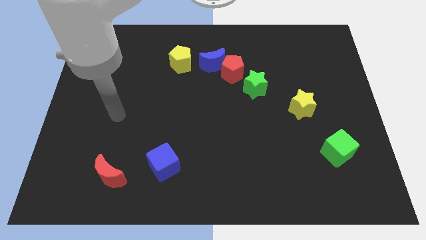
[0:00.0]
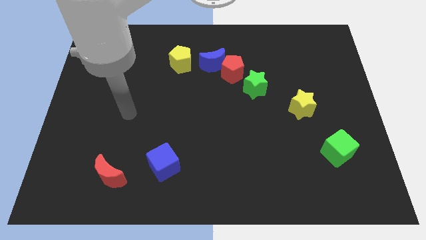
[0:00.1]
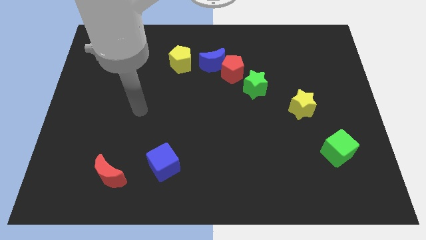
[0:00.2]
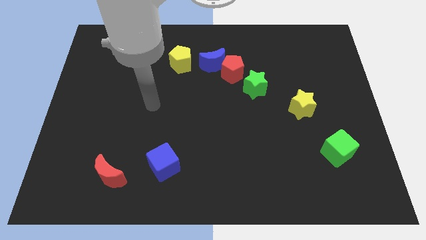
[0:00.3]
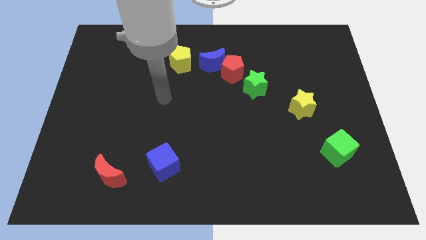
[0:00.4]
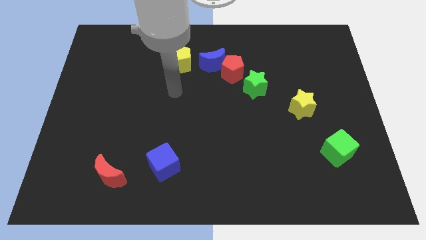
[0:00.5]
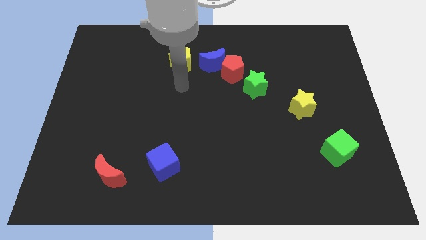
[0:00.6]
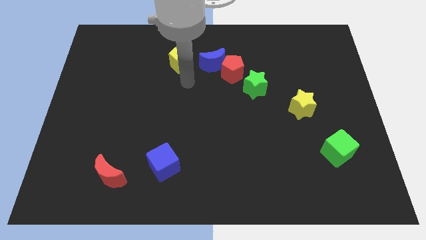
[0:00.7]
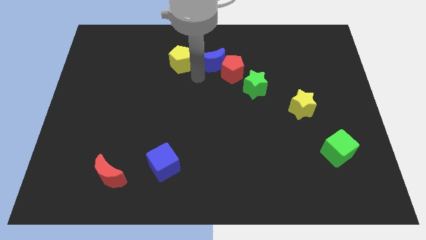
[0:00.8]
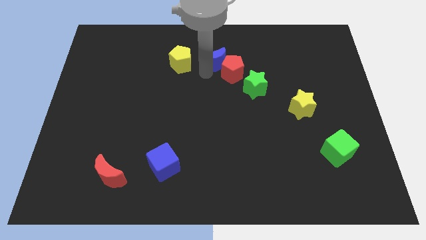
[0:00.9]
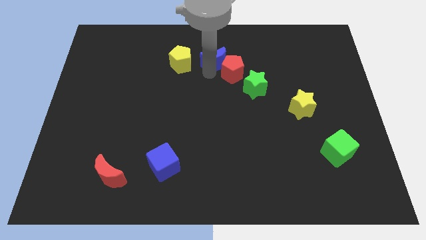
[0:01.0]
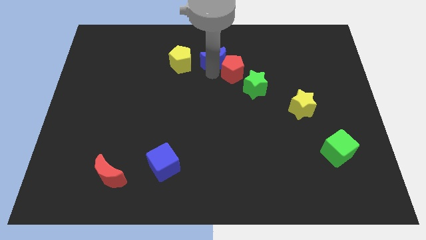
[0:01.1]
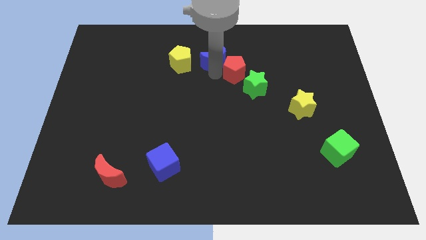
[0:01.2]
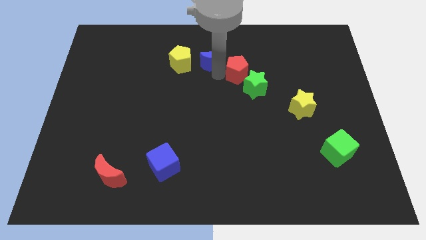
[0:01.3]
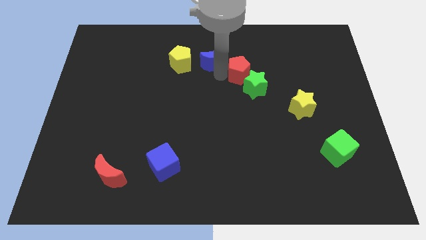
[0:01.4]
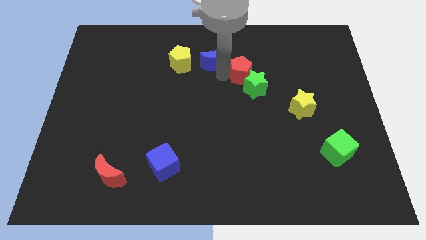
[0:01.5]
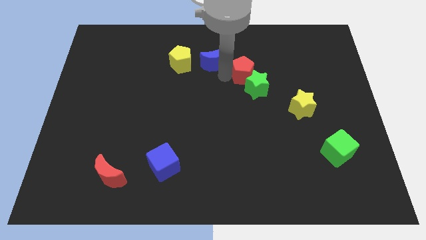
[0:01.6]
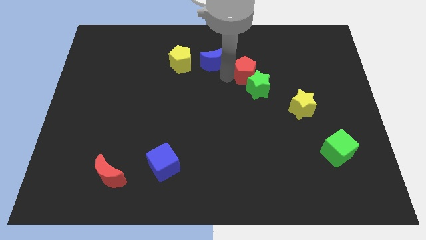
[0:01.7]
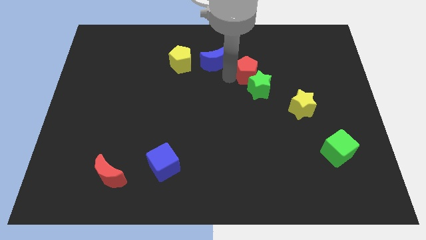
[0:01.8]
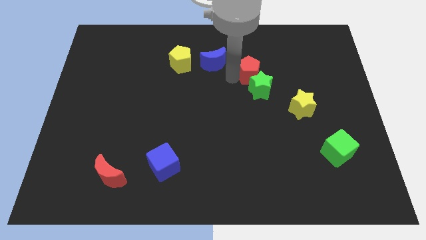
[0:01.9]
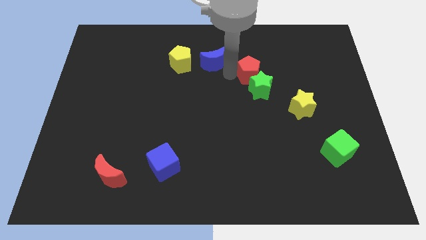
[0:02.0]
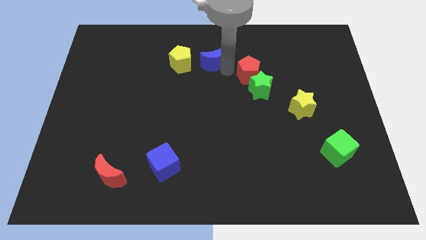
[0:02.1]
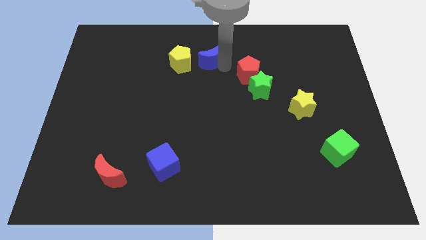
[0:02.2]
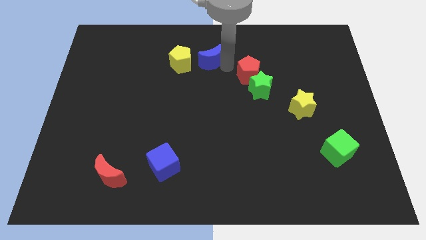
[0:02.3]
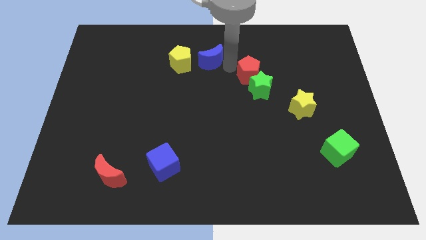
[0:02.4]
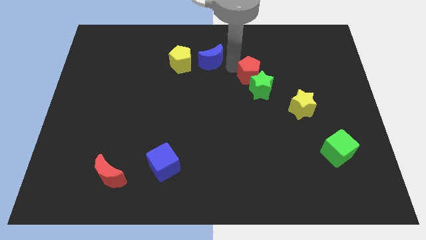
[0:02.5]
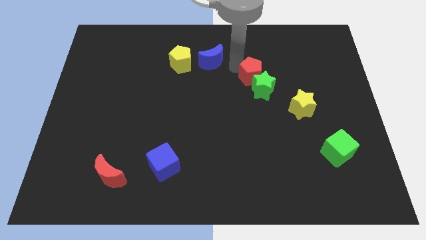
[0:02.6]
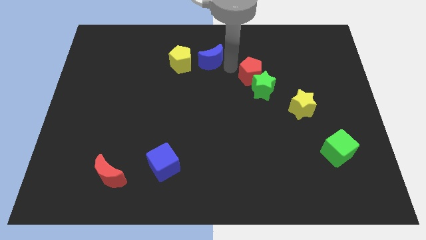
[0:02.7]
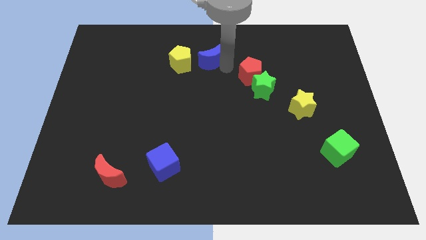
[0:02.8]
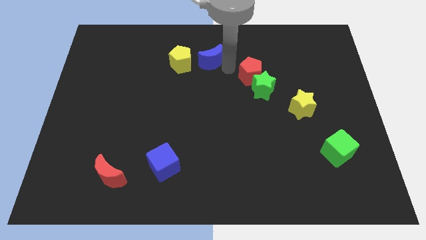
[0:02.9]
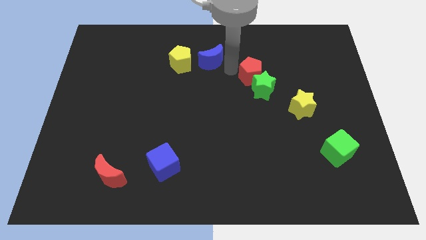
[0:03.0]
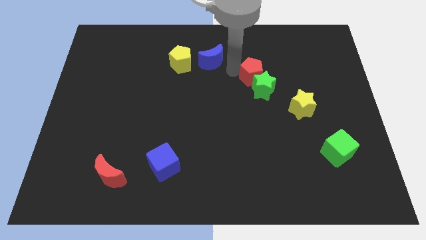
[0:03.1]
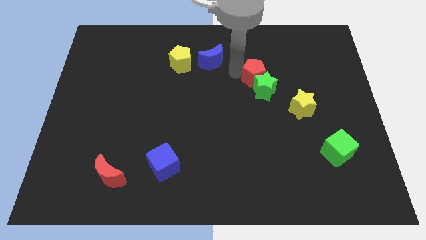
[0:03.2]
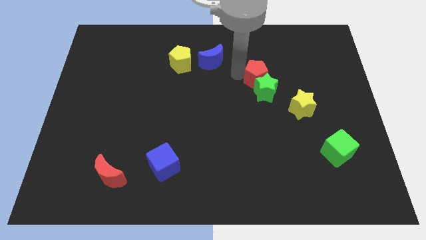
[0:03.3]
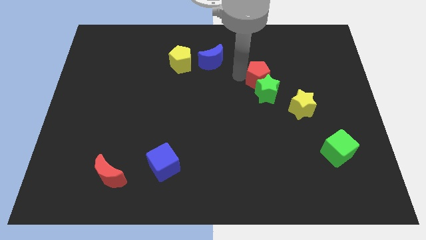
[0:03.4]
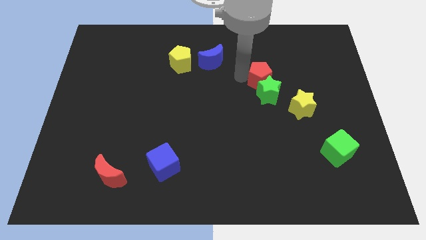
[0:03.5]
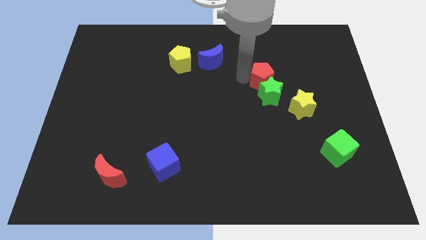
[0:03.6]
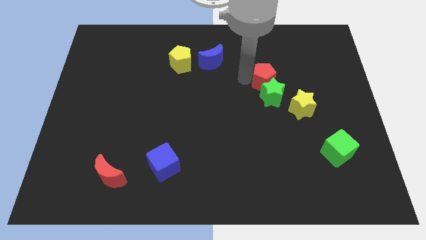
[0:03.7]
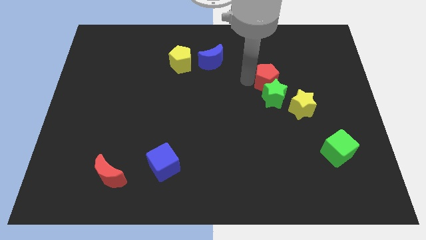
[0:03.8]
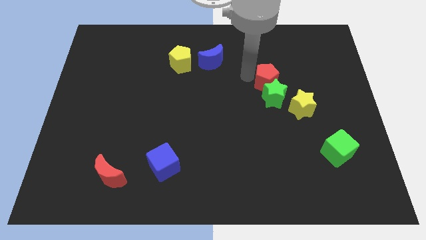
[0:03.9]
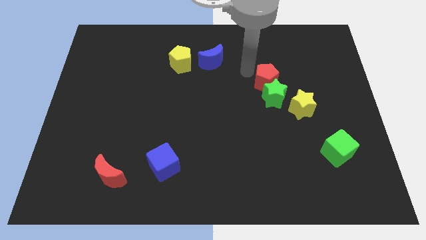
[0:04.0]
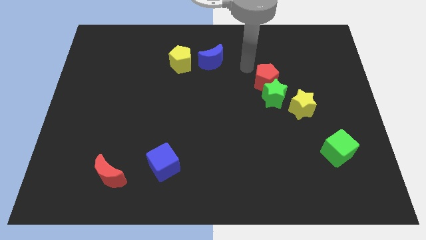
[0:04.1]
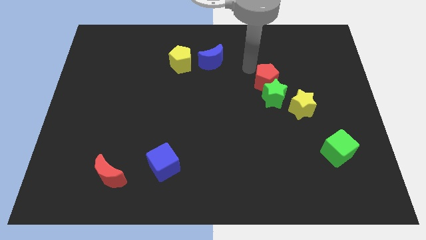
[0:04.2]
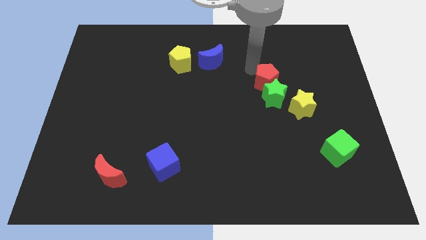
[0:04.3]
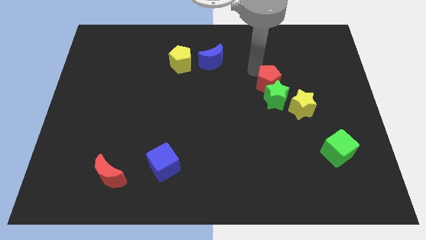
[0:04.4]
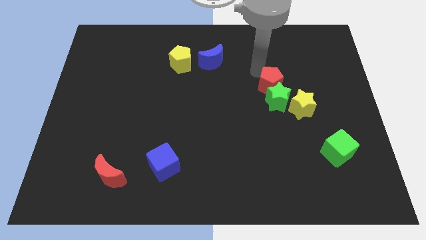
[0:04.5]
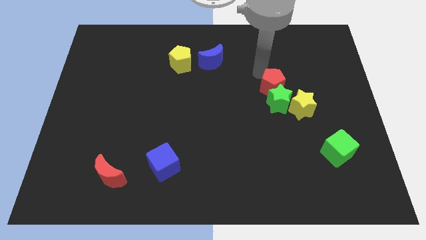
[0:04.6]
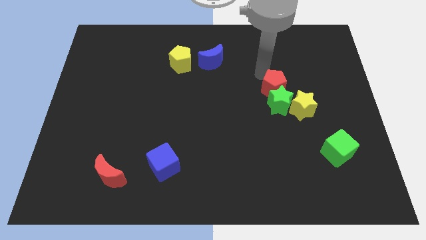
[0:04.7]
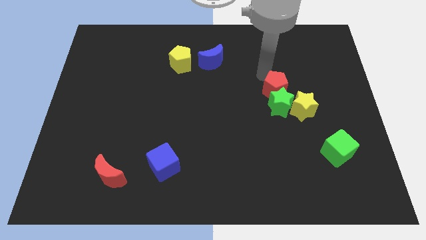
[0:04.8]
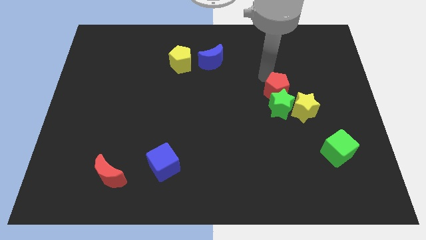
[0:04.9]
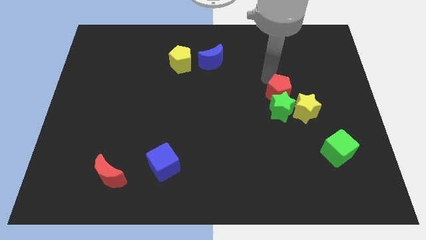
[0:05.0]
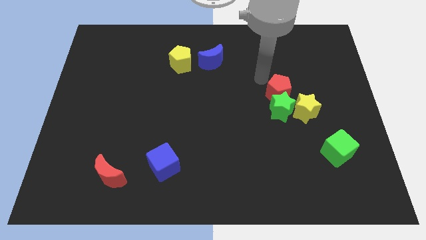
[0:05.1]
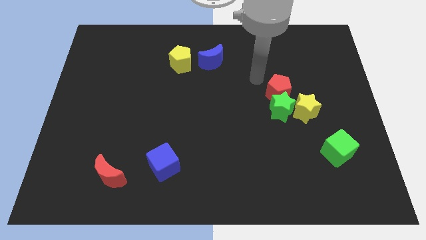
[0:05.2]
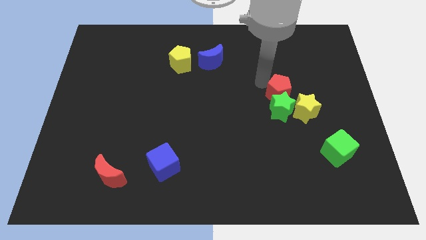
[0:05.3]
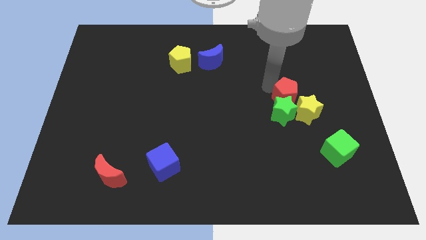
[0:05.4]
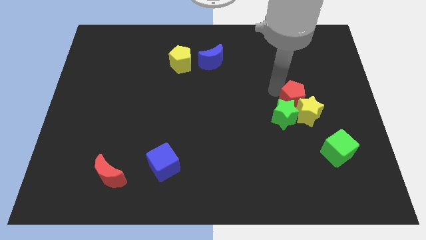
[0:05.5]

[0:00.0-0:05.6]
push the red pentagon next to the yellow star

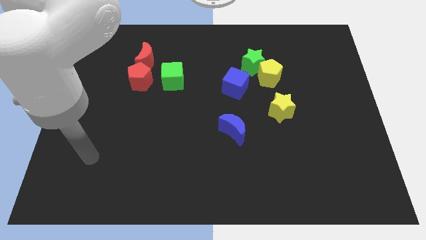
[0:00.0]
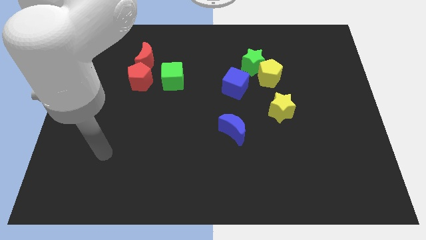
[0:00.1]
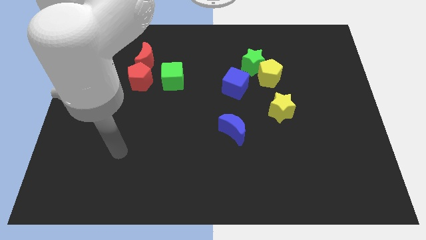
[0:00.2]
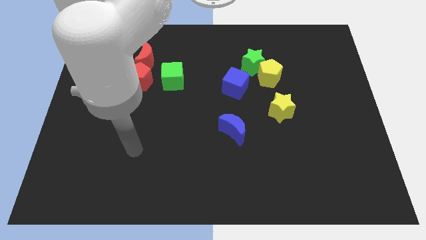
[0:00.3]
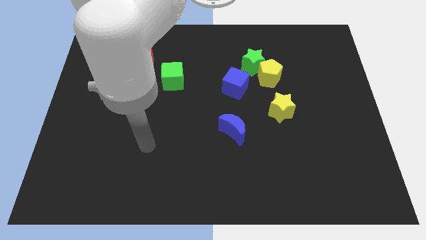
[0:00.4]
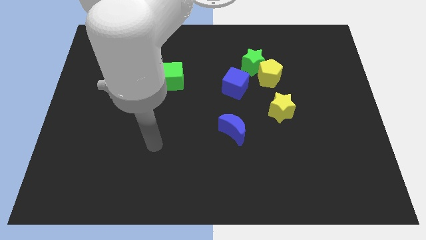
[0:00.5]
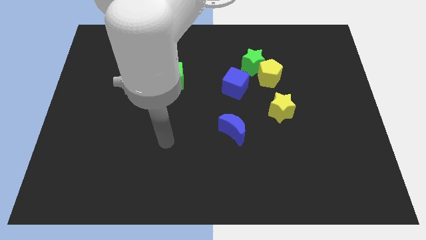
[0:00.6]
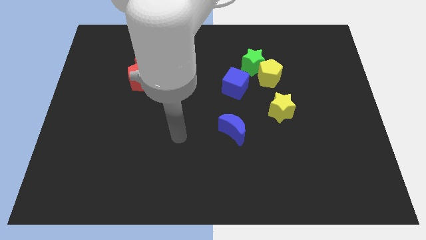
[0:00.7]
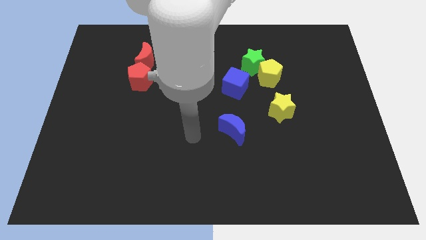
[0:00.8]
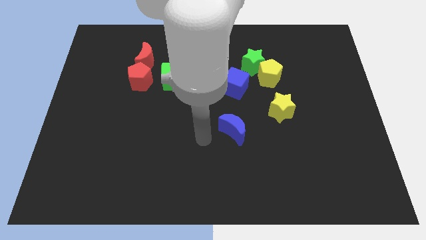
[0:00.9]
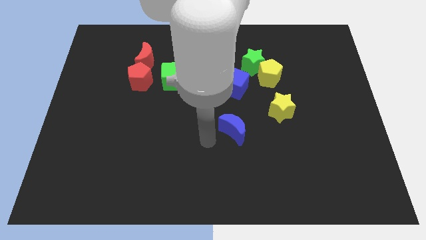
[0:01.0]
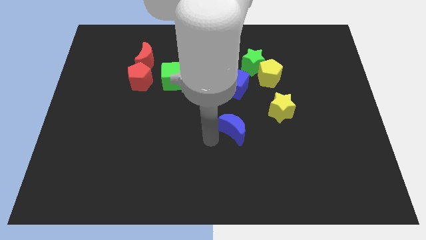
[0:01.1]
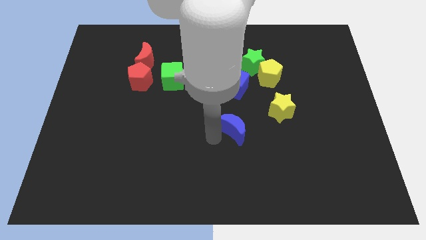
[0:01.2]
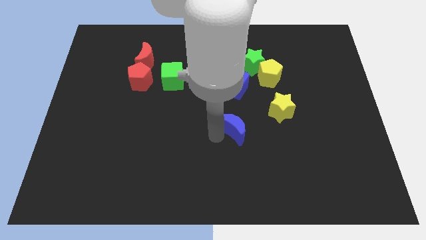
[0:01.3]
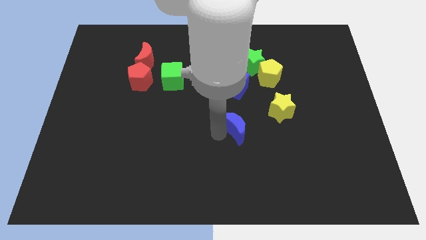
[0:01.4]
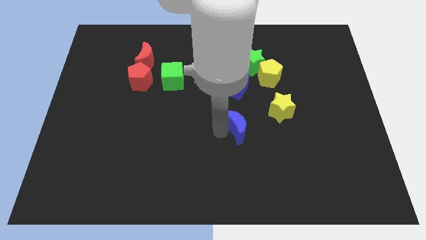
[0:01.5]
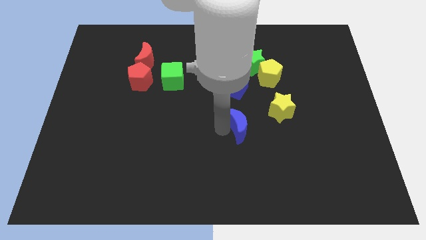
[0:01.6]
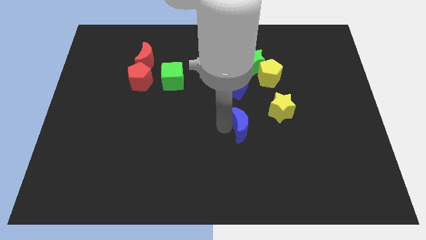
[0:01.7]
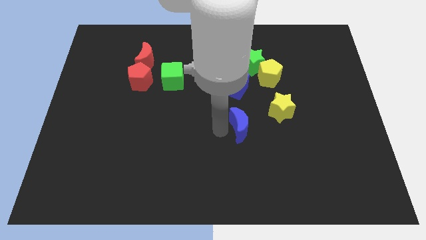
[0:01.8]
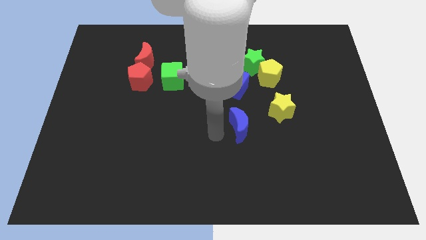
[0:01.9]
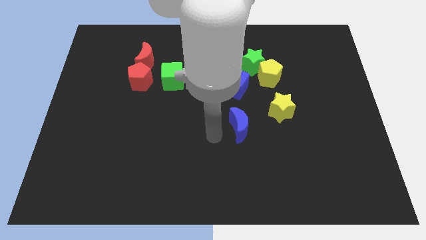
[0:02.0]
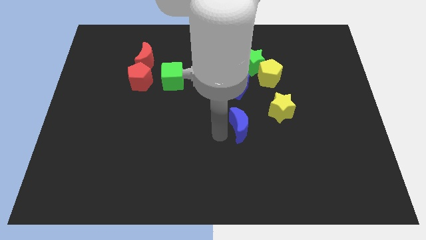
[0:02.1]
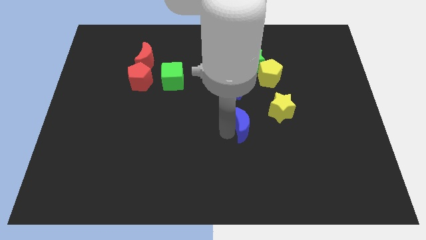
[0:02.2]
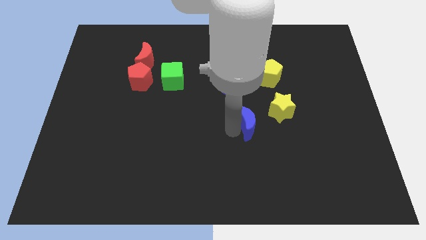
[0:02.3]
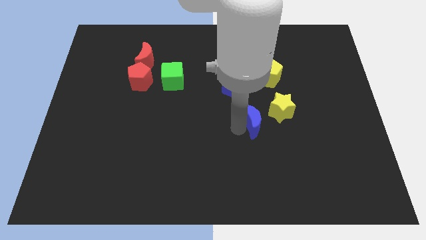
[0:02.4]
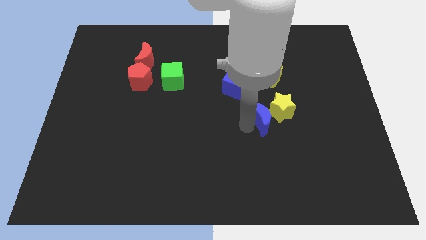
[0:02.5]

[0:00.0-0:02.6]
move the blue moon next to the yellow star
